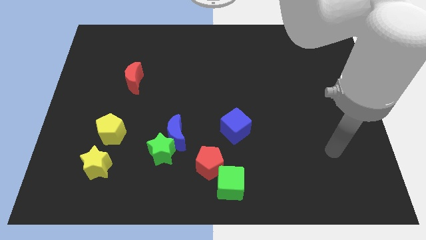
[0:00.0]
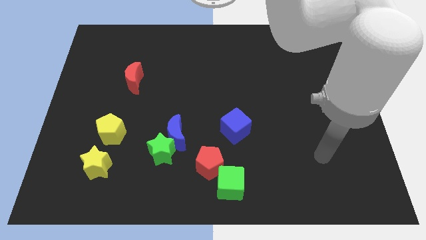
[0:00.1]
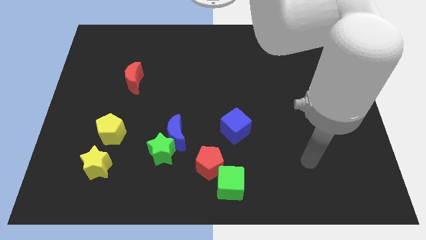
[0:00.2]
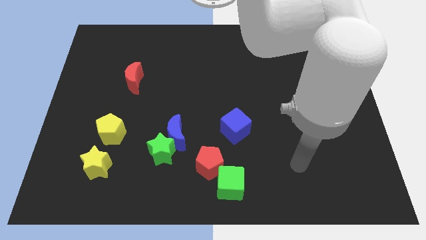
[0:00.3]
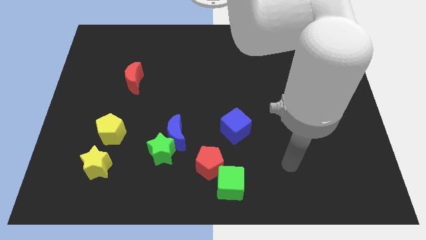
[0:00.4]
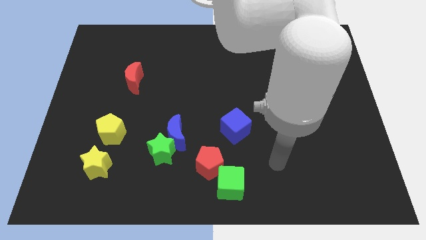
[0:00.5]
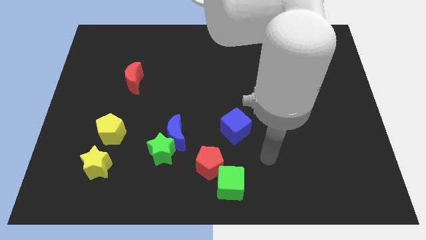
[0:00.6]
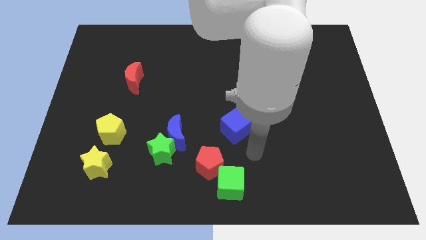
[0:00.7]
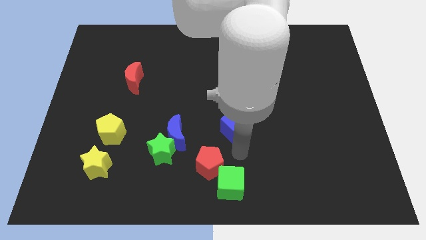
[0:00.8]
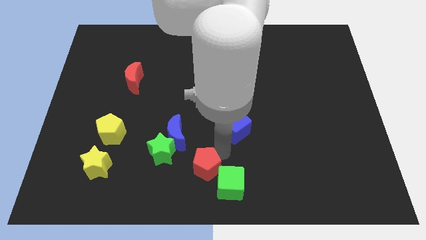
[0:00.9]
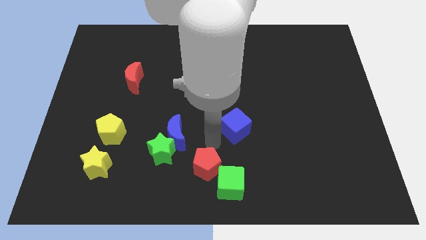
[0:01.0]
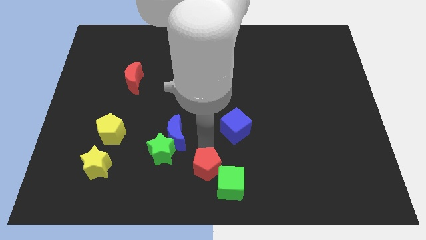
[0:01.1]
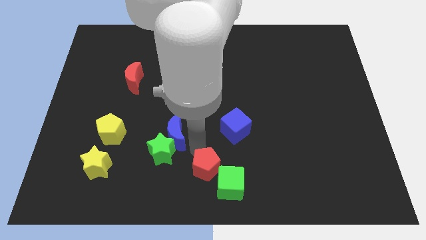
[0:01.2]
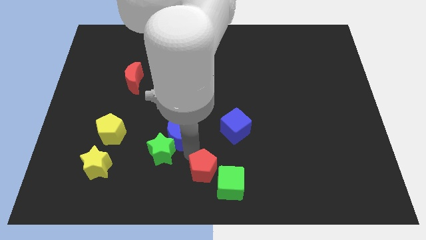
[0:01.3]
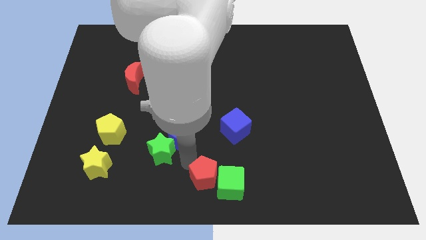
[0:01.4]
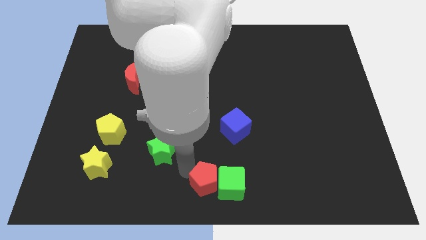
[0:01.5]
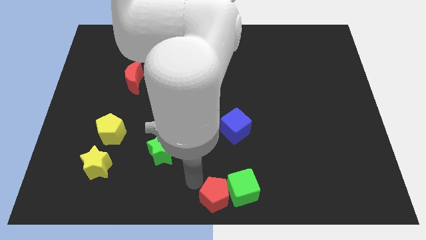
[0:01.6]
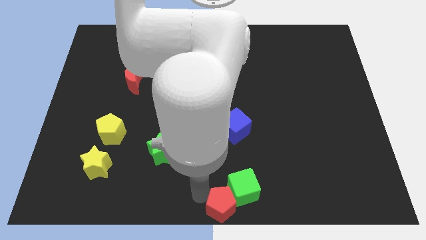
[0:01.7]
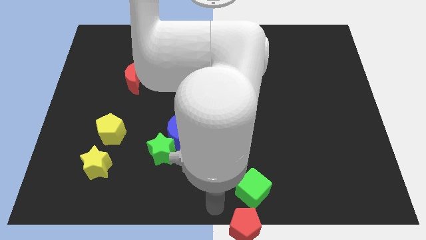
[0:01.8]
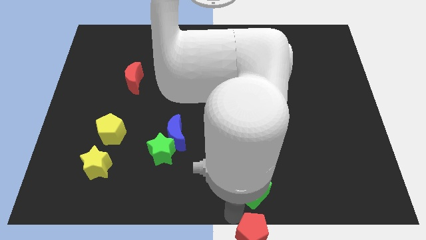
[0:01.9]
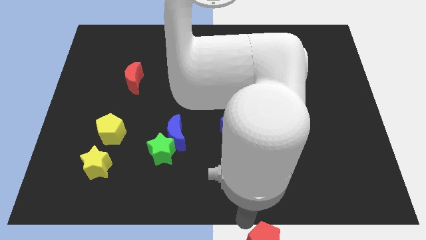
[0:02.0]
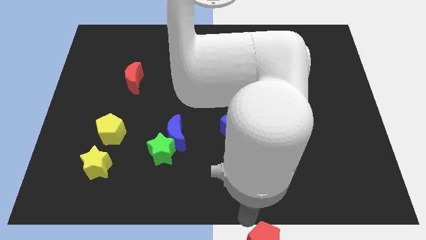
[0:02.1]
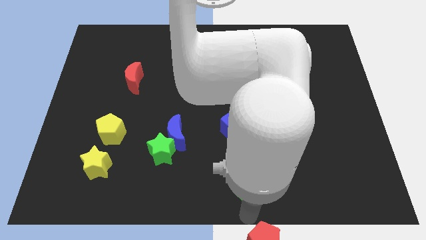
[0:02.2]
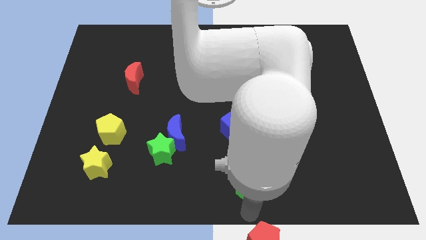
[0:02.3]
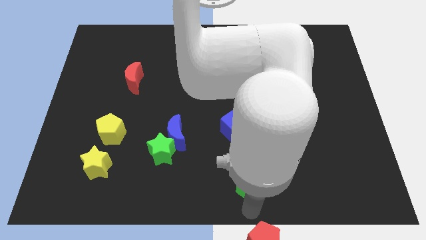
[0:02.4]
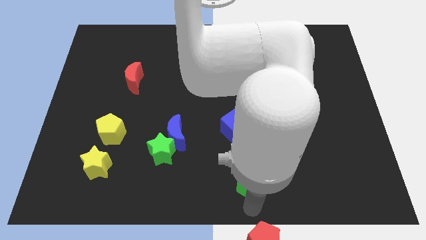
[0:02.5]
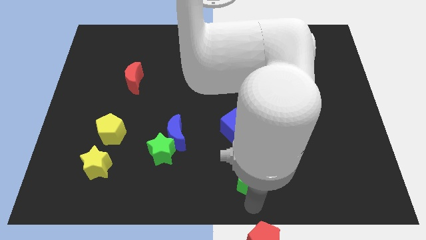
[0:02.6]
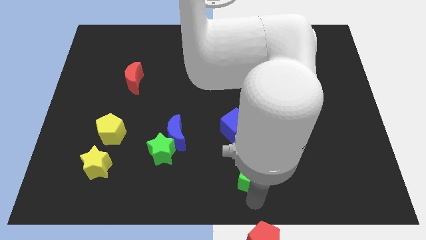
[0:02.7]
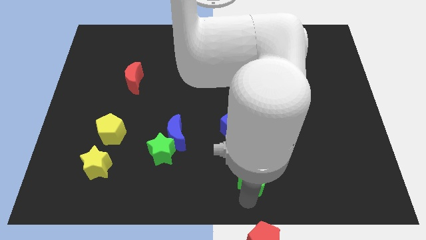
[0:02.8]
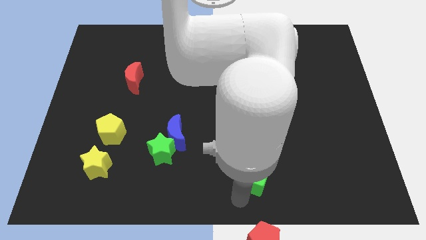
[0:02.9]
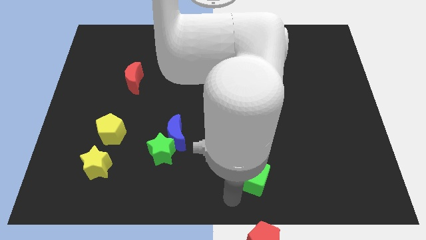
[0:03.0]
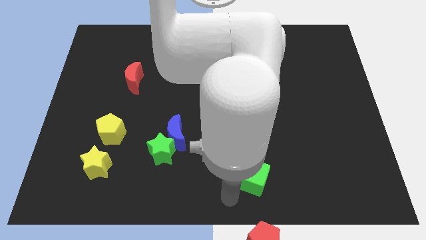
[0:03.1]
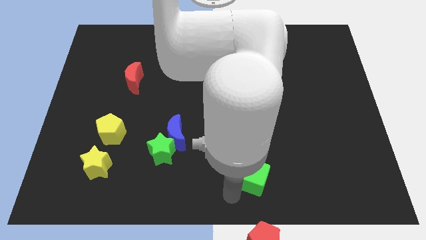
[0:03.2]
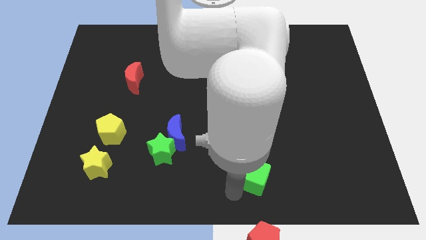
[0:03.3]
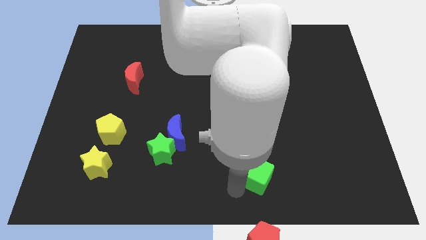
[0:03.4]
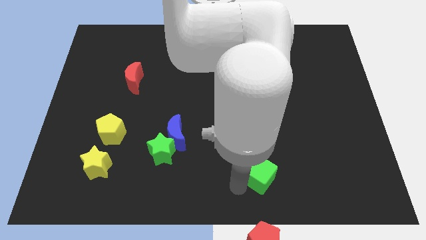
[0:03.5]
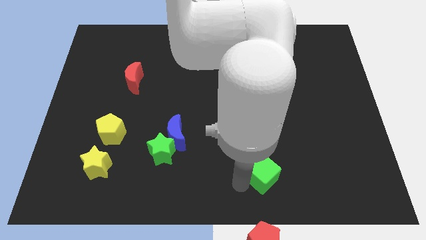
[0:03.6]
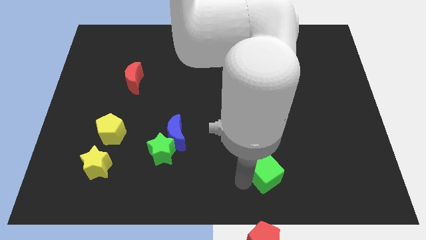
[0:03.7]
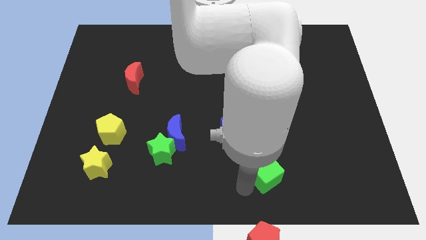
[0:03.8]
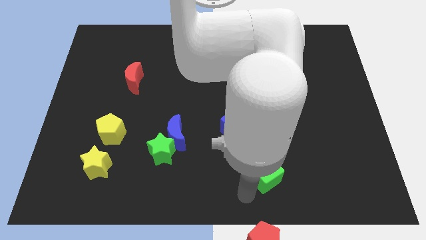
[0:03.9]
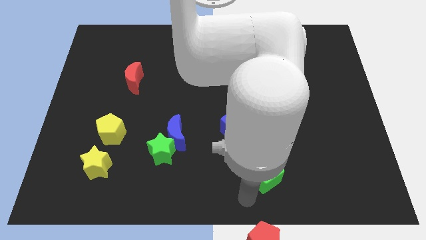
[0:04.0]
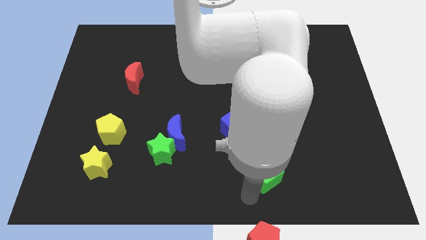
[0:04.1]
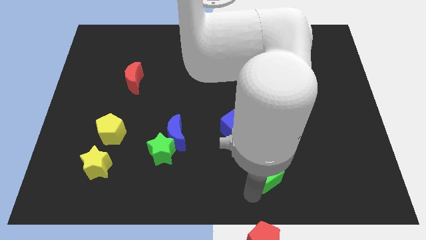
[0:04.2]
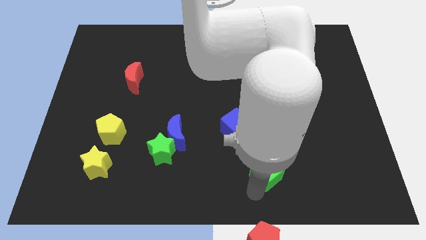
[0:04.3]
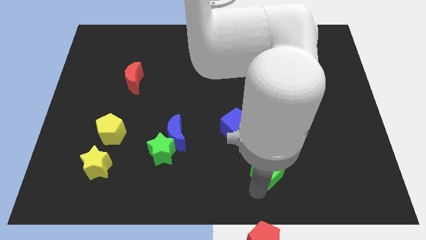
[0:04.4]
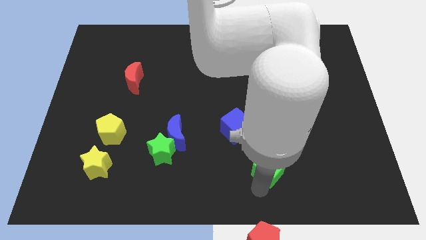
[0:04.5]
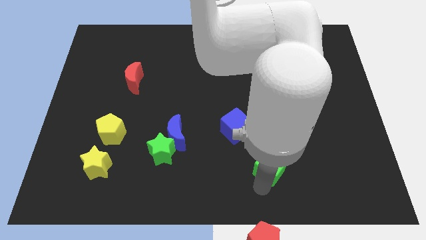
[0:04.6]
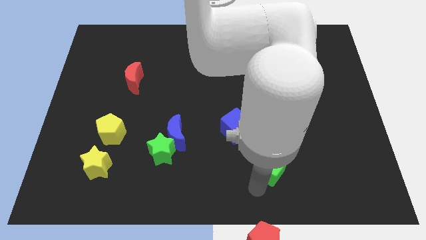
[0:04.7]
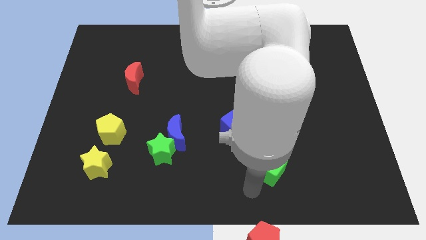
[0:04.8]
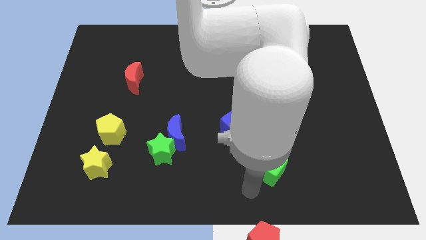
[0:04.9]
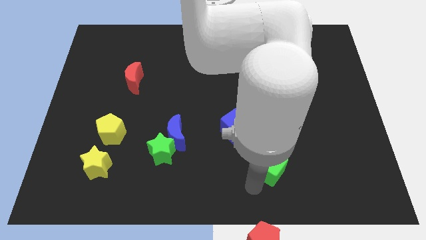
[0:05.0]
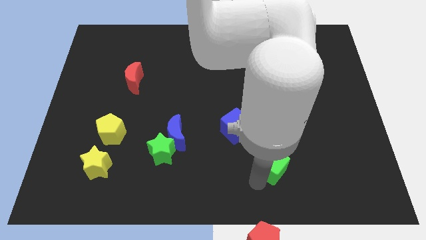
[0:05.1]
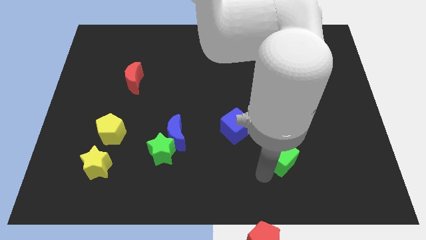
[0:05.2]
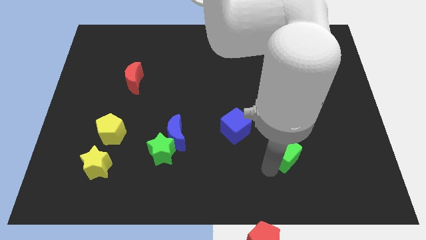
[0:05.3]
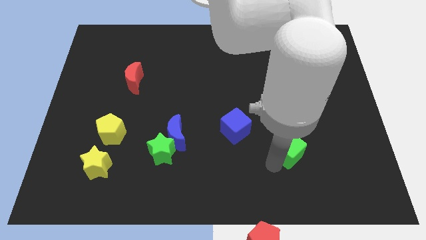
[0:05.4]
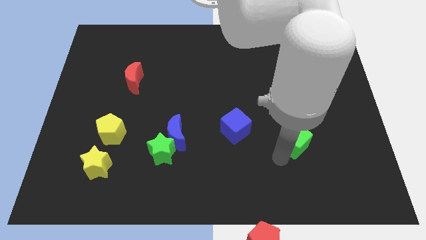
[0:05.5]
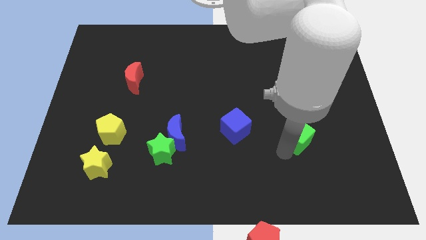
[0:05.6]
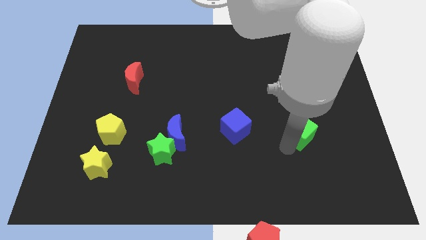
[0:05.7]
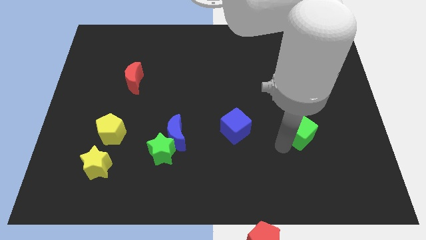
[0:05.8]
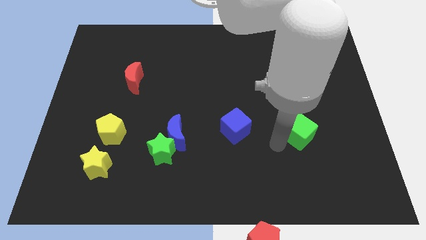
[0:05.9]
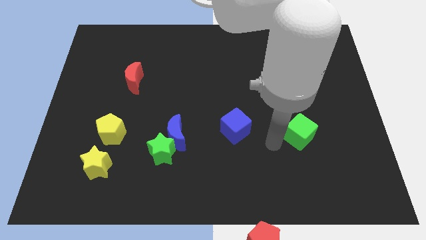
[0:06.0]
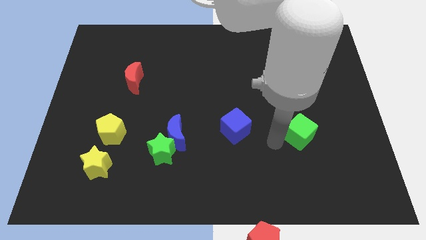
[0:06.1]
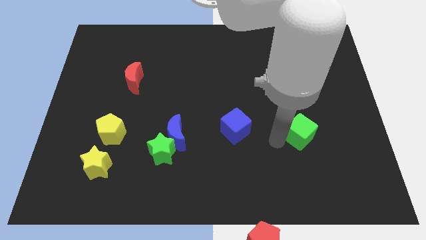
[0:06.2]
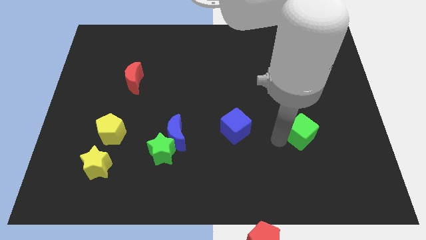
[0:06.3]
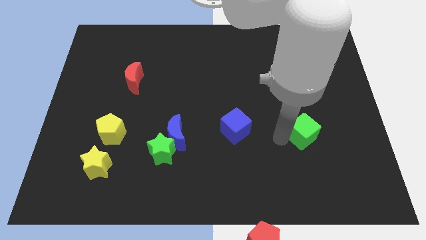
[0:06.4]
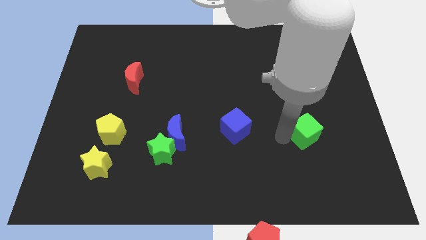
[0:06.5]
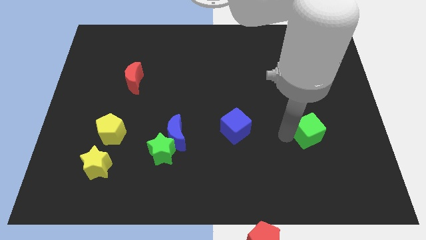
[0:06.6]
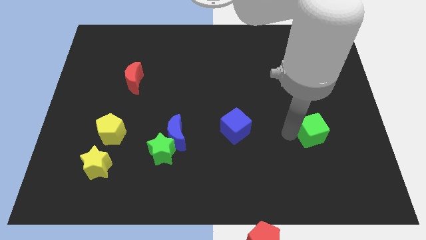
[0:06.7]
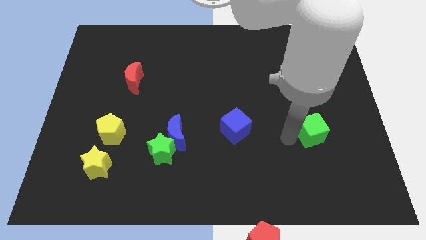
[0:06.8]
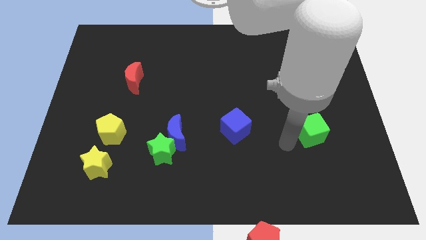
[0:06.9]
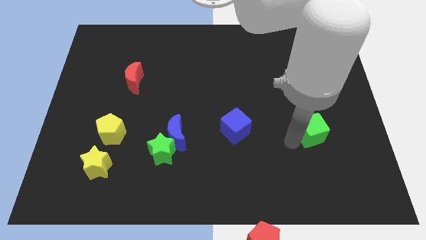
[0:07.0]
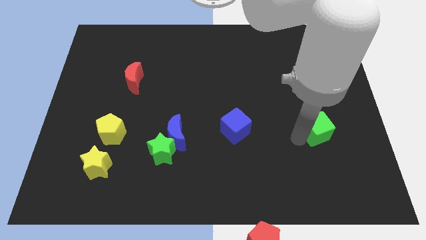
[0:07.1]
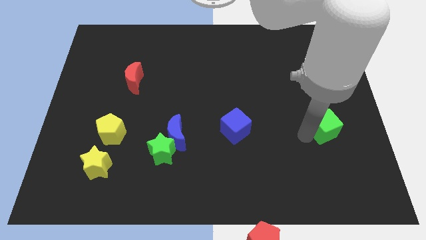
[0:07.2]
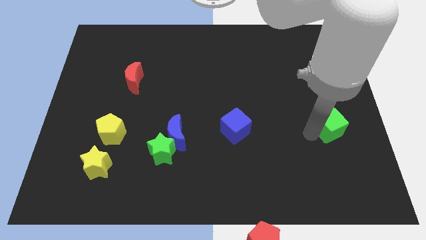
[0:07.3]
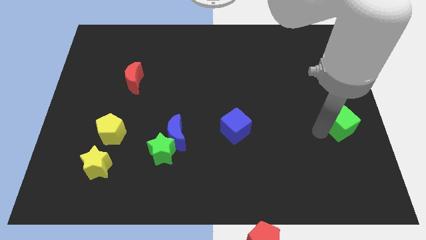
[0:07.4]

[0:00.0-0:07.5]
move the green cube to the right side
